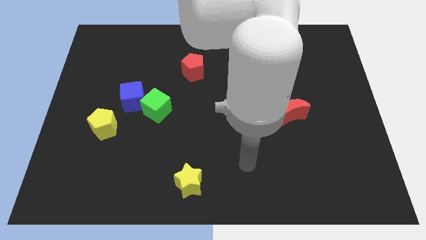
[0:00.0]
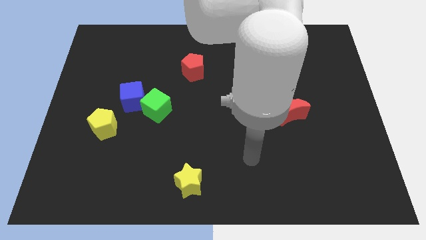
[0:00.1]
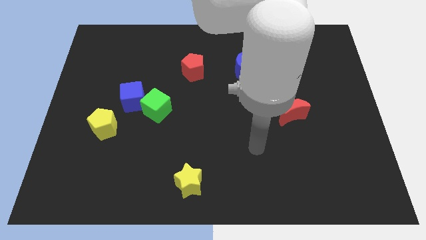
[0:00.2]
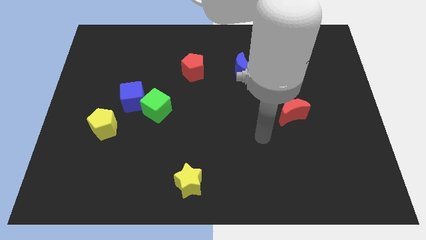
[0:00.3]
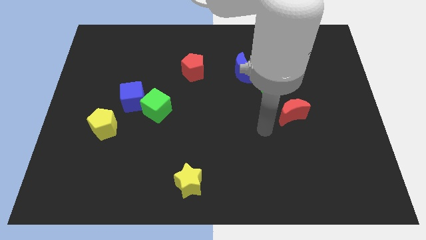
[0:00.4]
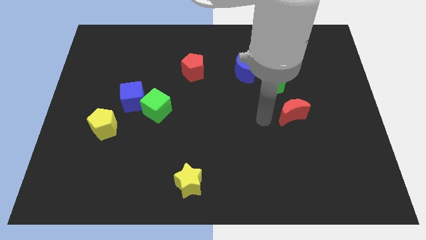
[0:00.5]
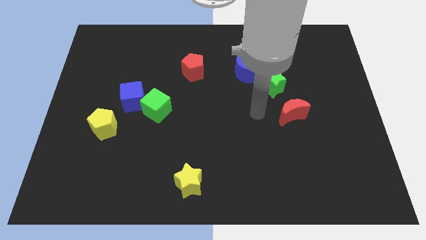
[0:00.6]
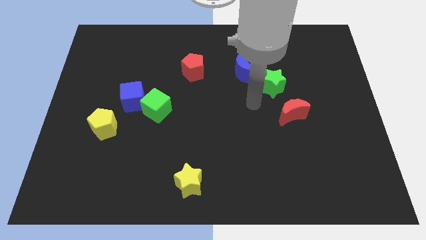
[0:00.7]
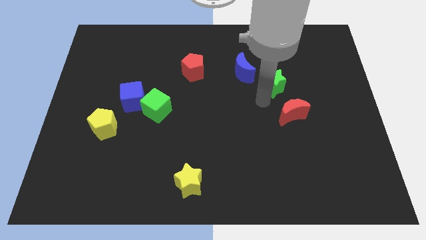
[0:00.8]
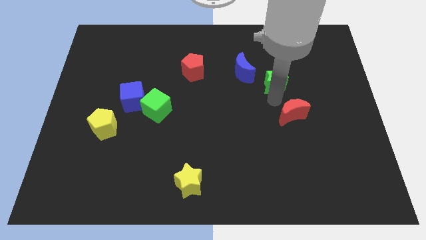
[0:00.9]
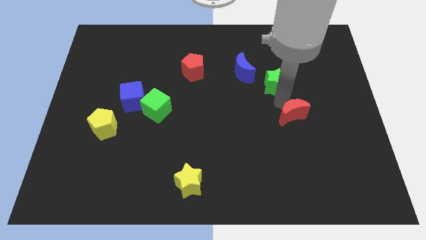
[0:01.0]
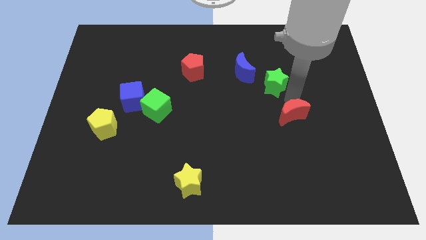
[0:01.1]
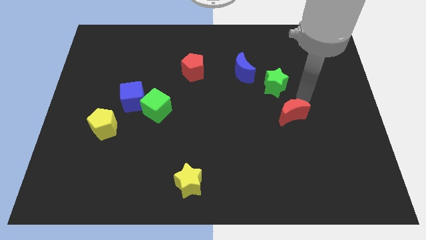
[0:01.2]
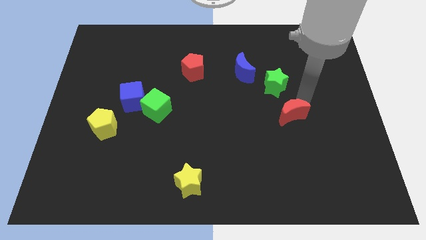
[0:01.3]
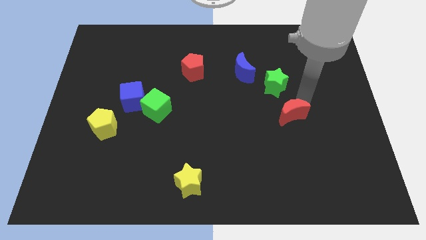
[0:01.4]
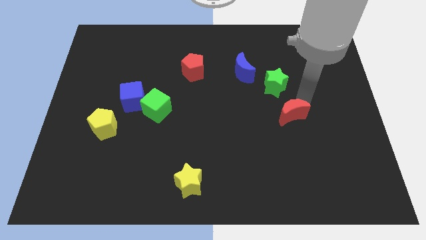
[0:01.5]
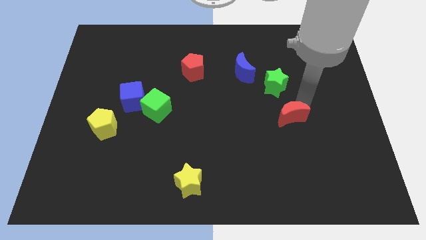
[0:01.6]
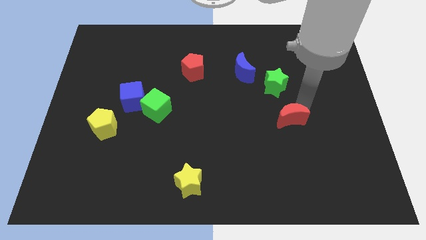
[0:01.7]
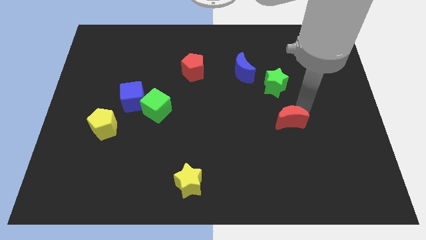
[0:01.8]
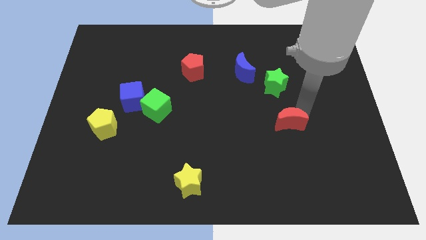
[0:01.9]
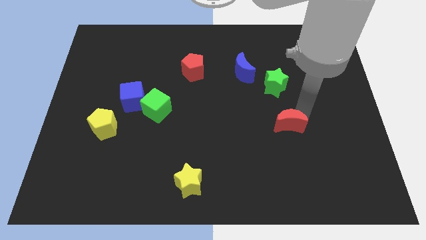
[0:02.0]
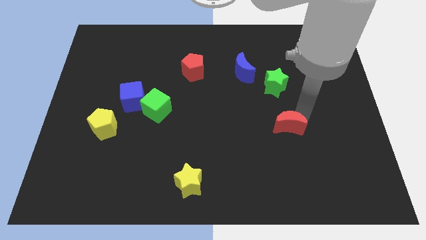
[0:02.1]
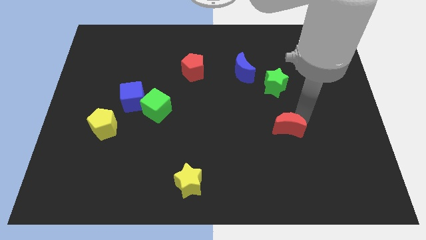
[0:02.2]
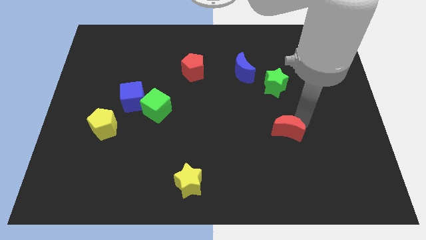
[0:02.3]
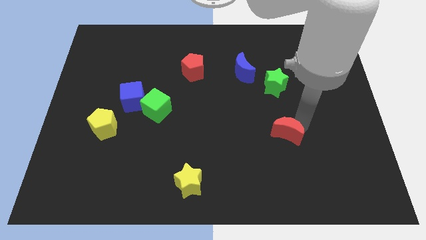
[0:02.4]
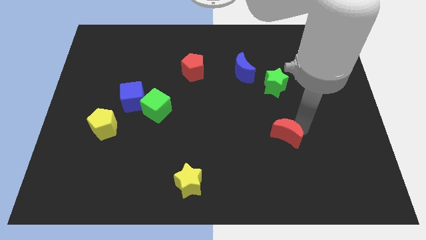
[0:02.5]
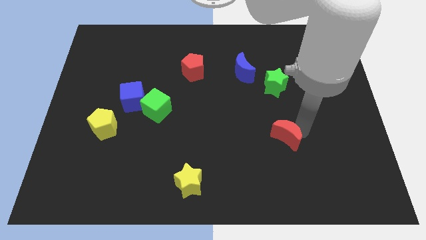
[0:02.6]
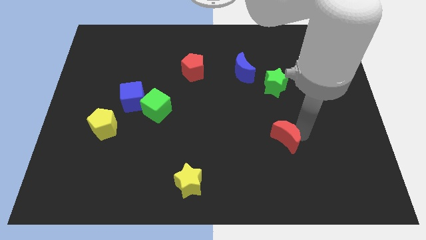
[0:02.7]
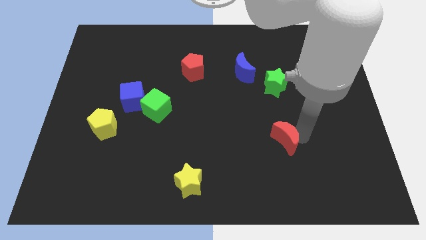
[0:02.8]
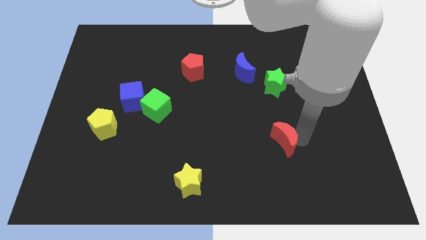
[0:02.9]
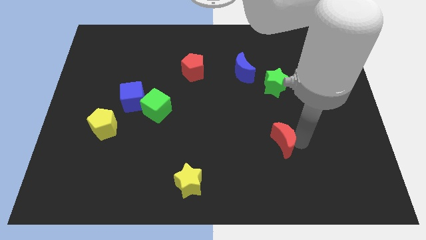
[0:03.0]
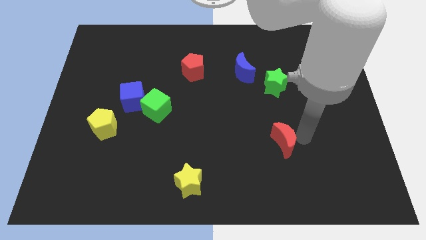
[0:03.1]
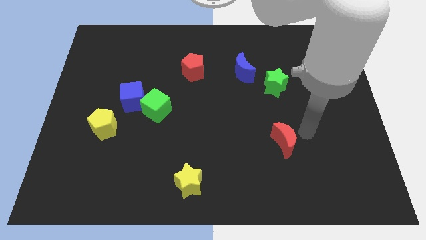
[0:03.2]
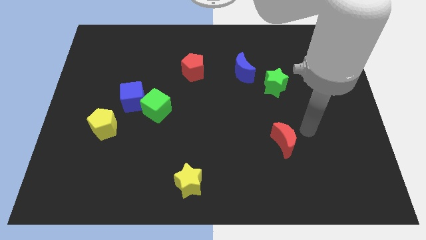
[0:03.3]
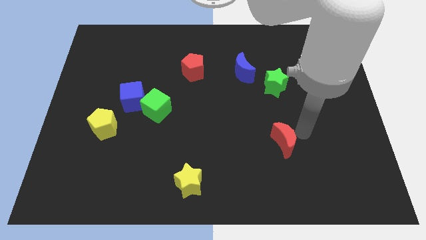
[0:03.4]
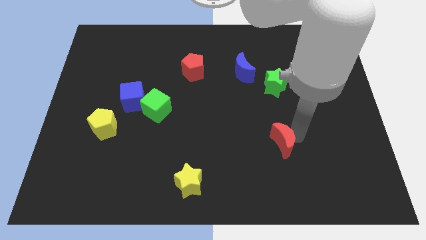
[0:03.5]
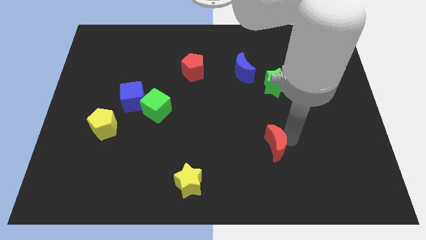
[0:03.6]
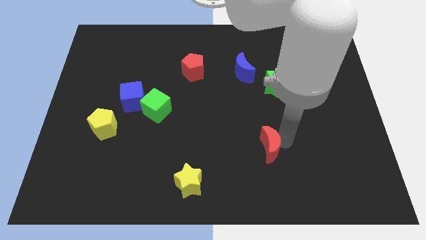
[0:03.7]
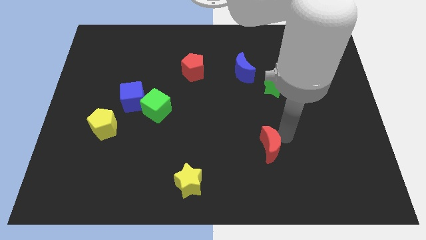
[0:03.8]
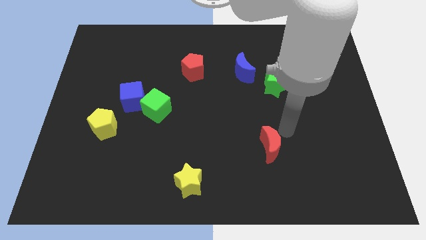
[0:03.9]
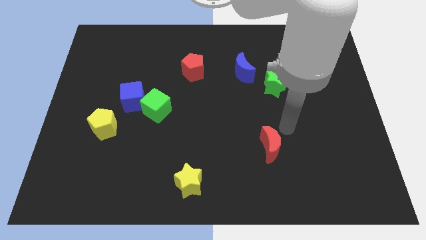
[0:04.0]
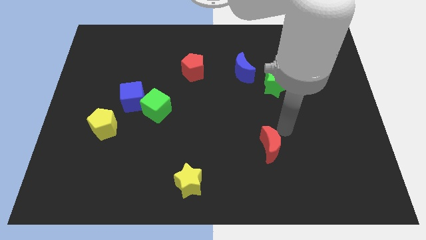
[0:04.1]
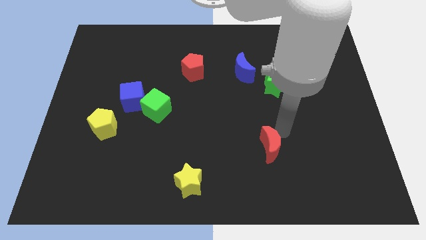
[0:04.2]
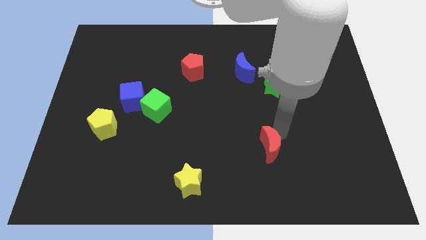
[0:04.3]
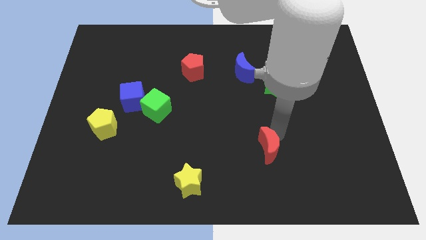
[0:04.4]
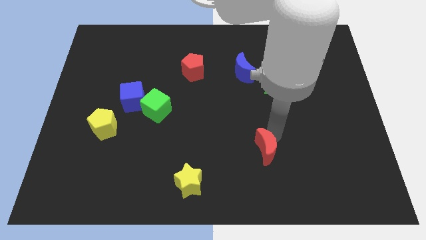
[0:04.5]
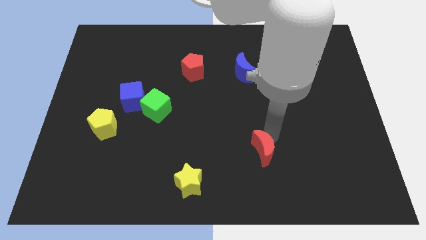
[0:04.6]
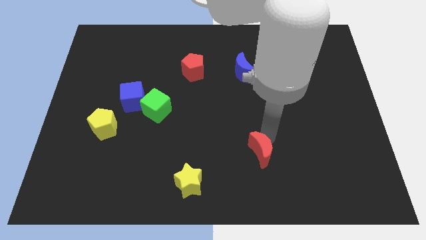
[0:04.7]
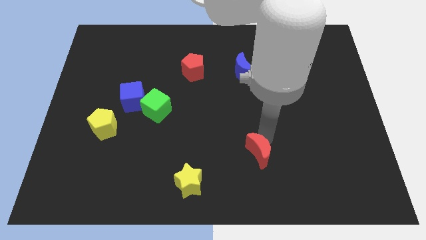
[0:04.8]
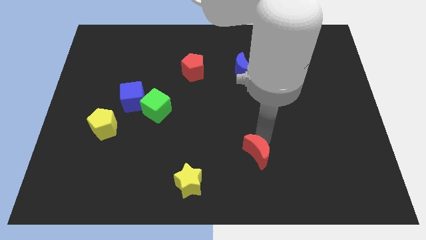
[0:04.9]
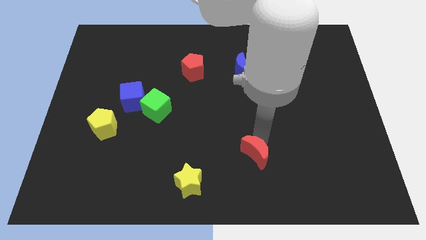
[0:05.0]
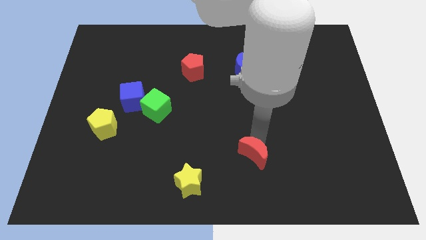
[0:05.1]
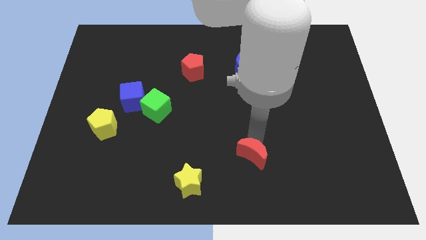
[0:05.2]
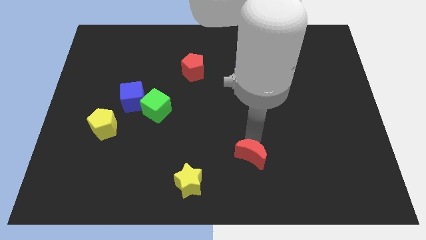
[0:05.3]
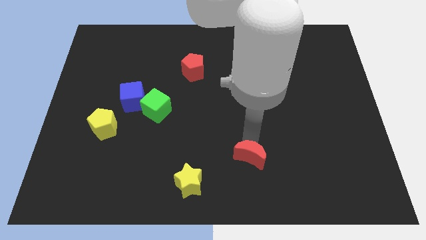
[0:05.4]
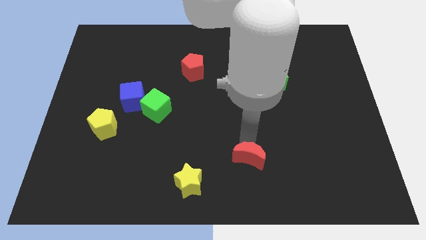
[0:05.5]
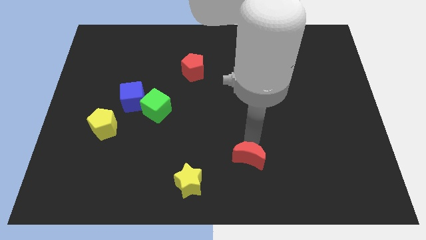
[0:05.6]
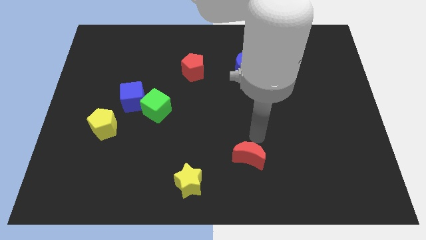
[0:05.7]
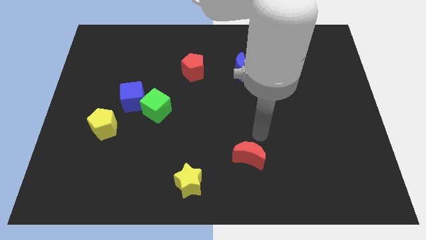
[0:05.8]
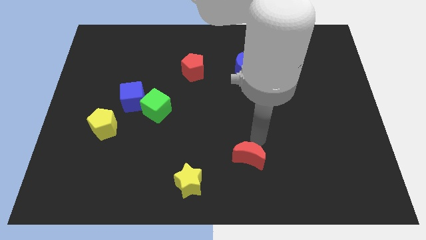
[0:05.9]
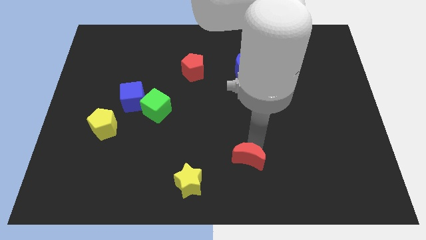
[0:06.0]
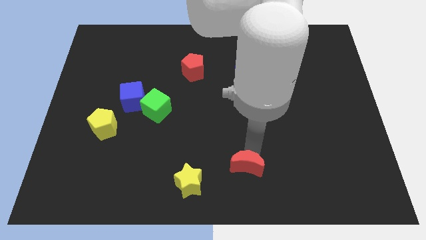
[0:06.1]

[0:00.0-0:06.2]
push the red moon to the bottom side
